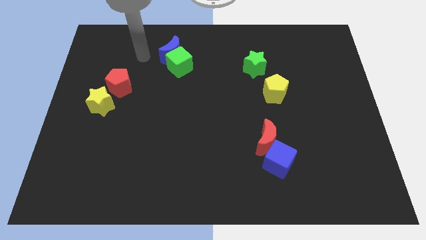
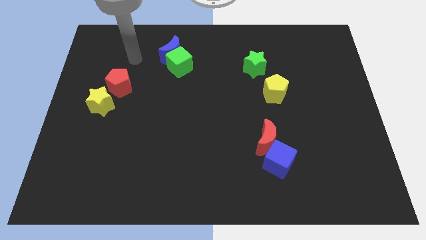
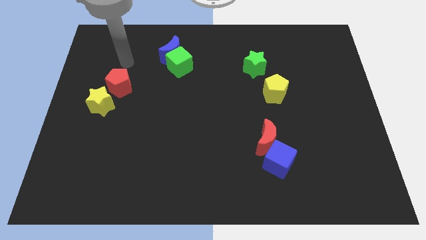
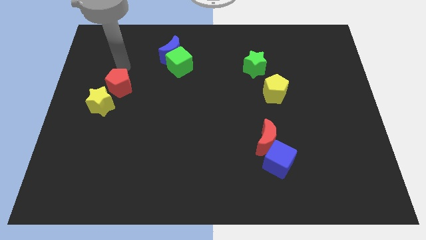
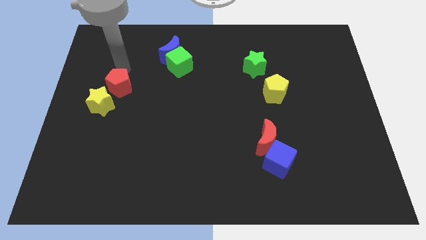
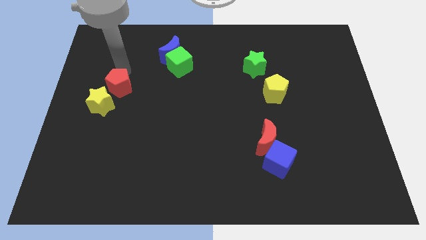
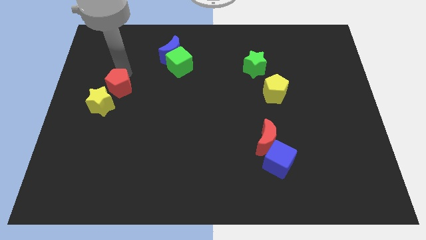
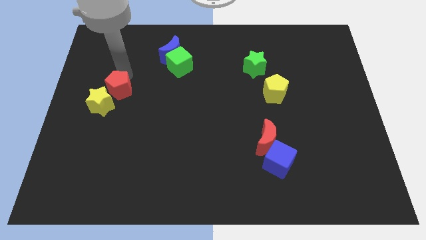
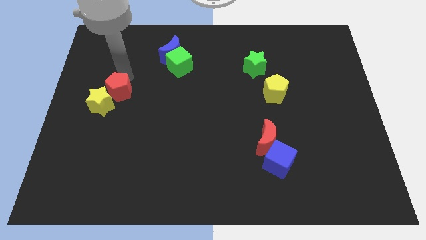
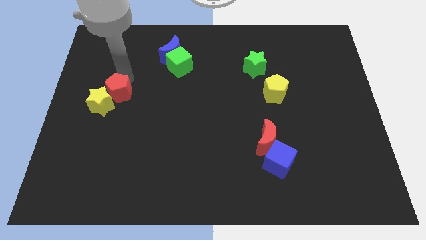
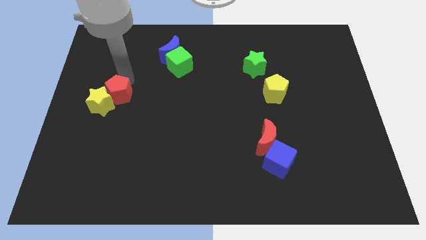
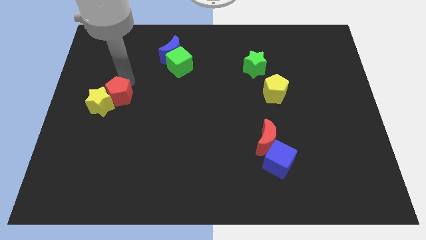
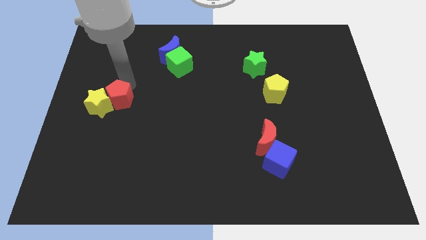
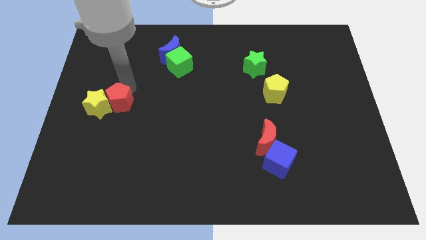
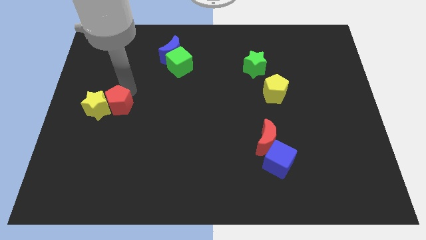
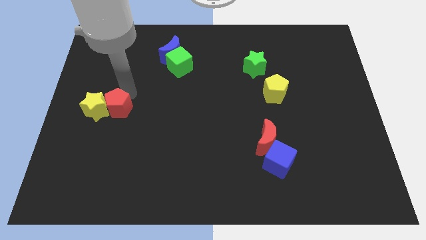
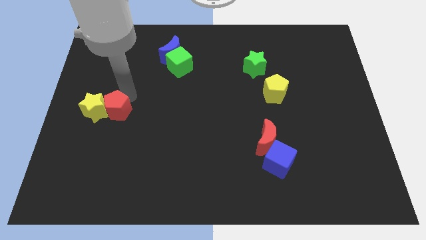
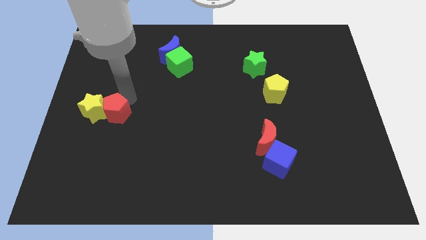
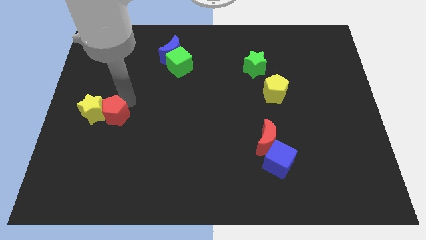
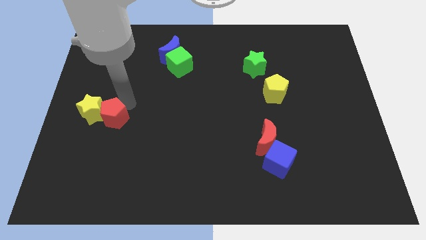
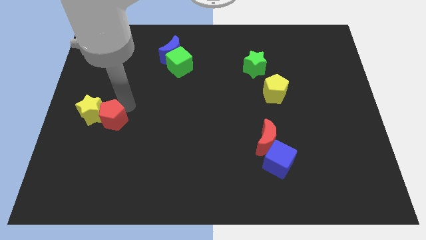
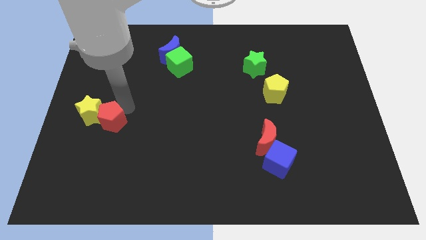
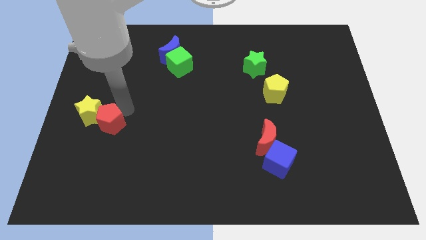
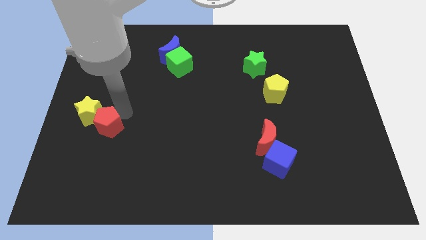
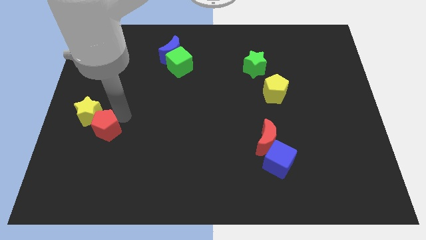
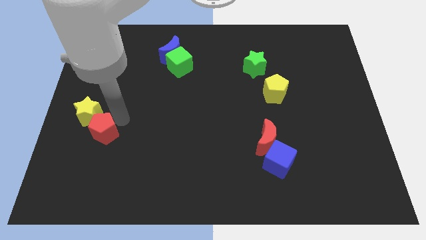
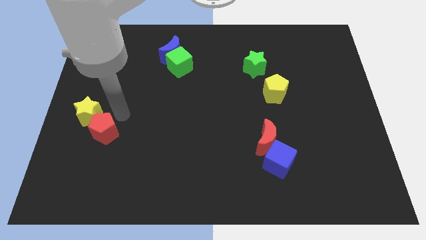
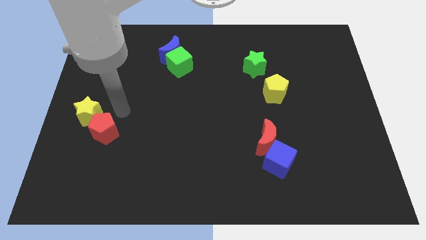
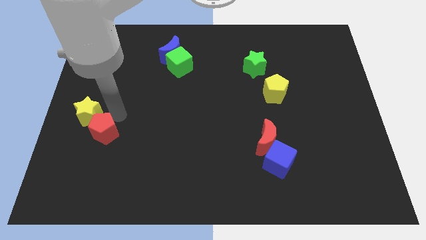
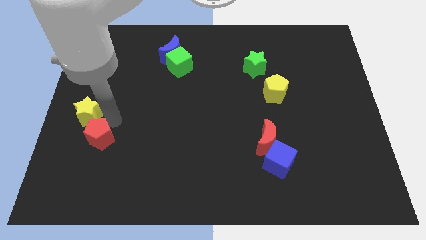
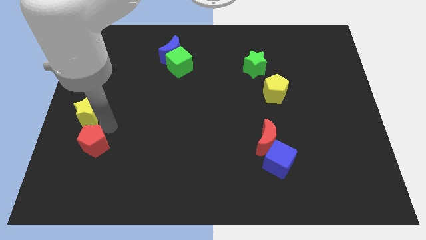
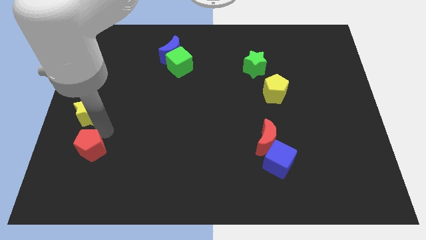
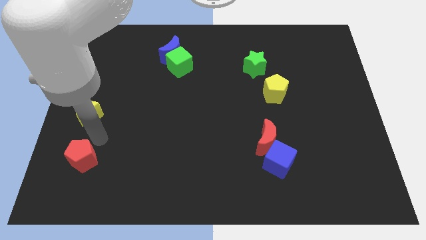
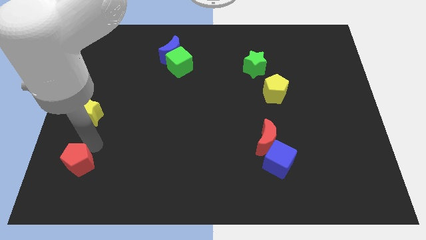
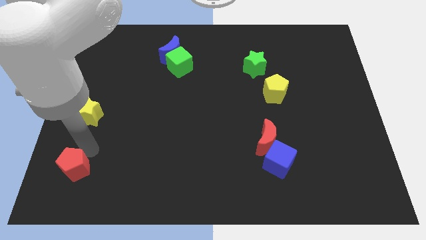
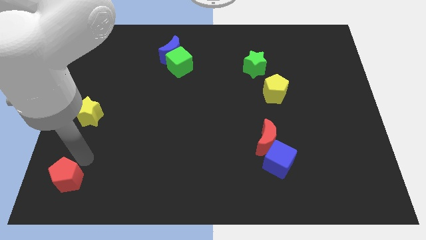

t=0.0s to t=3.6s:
put the red pentagon to the bottom left of the board

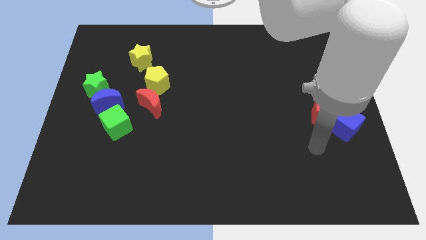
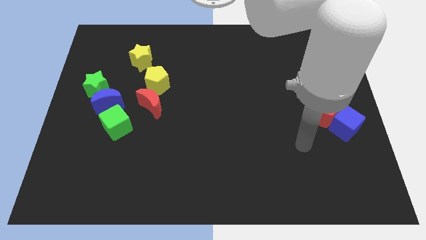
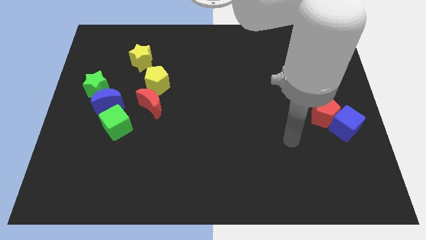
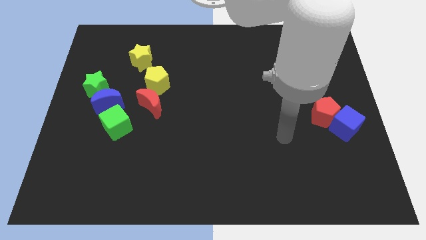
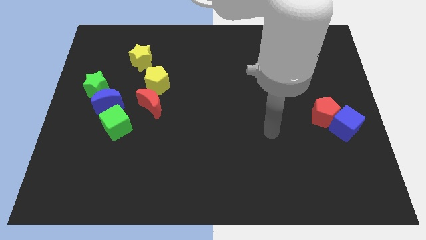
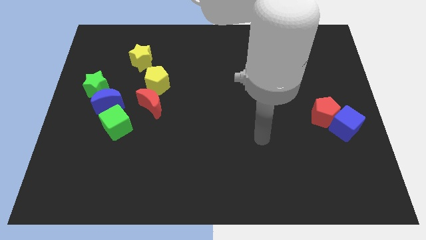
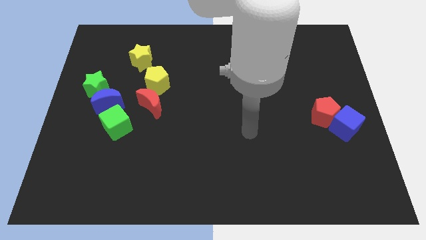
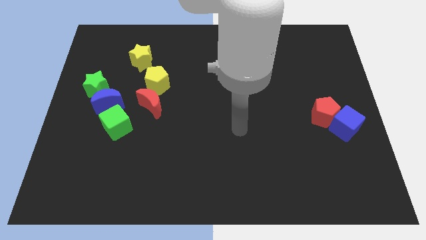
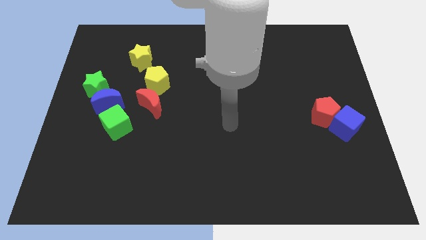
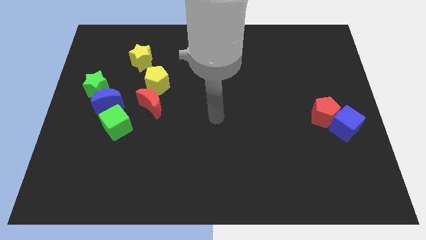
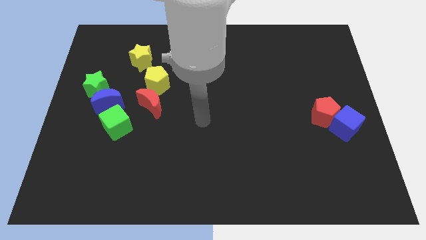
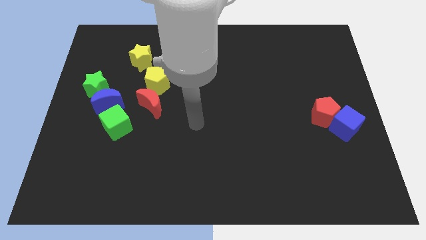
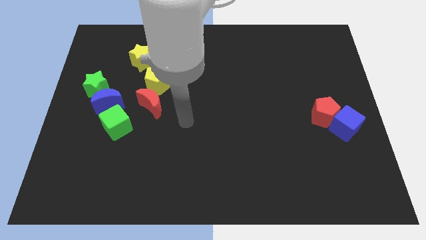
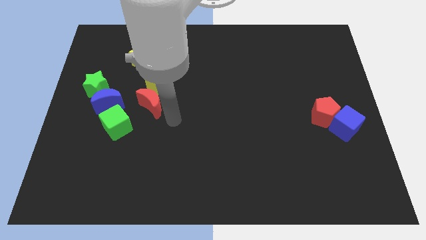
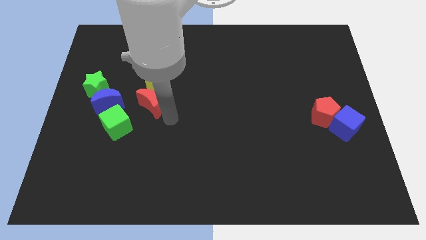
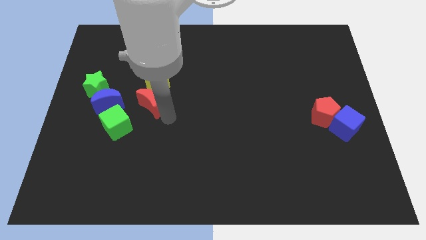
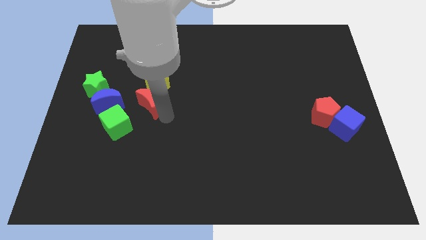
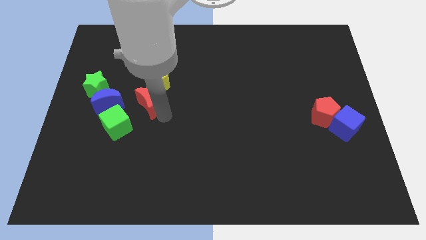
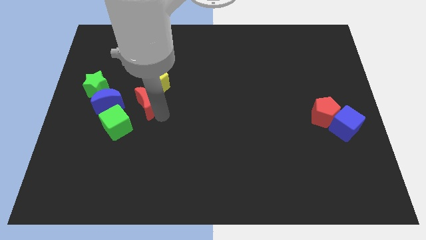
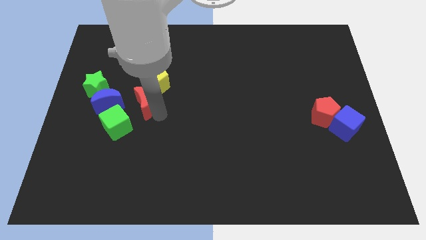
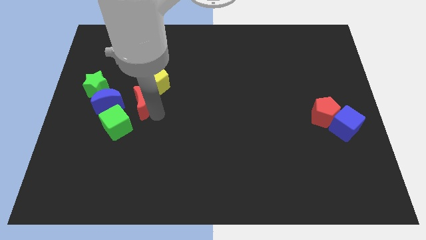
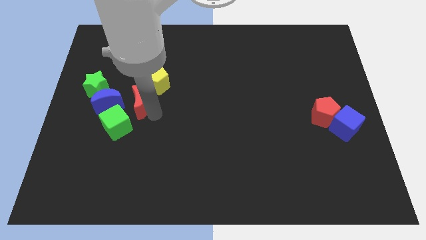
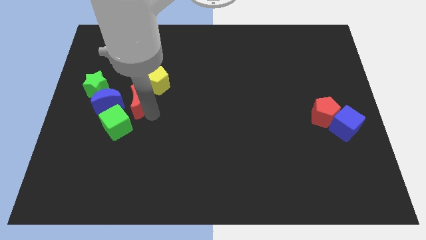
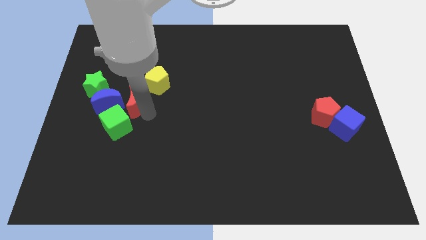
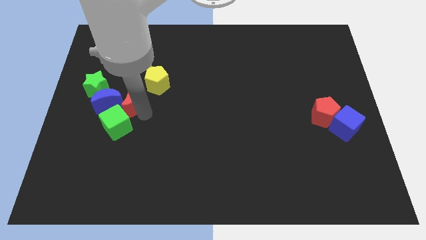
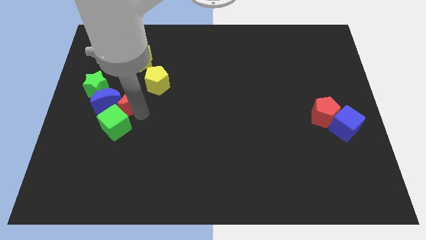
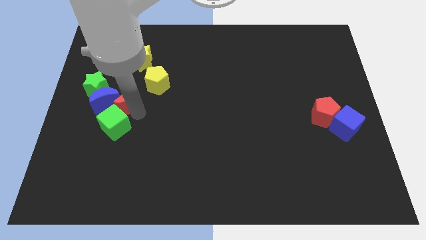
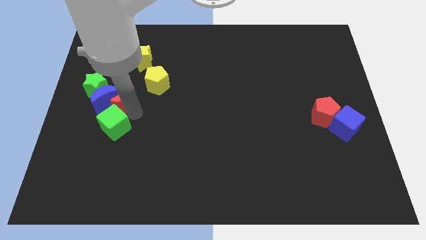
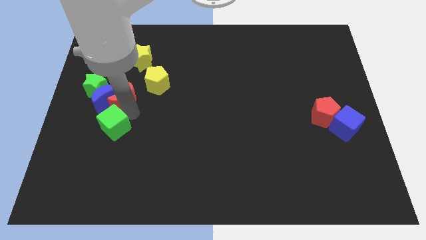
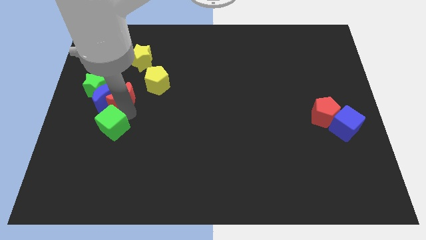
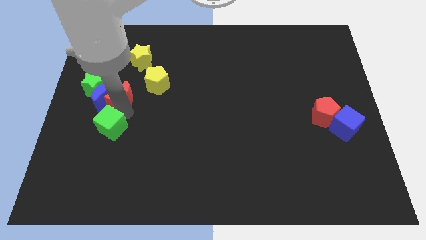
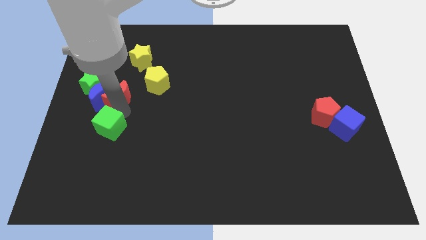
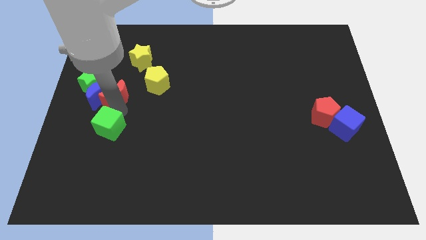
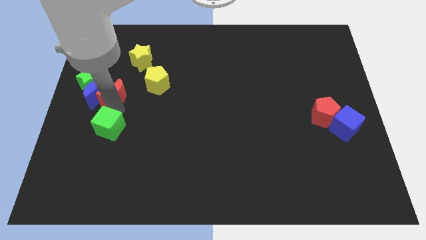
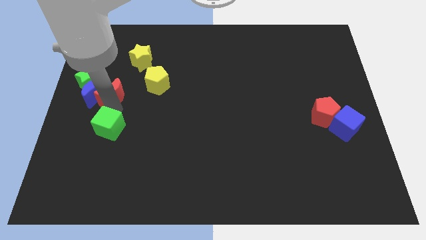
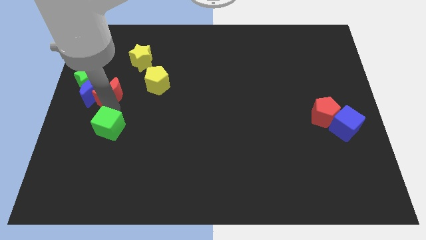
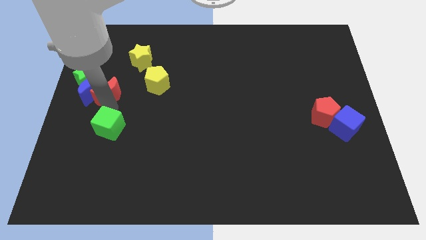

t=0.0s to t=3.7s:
move the red moon to the left side
